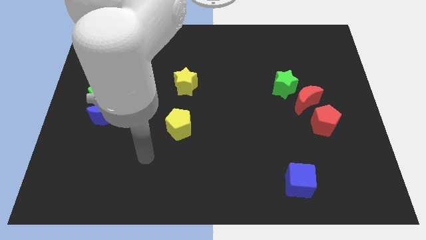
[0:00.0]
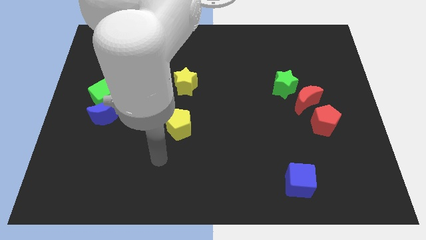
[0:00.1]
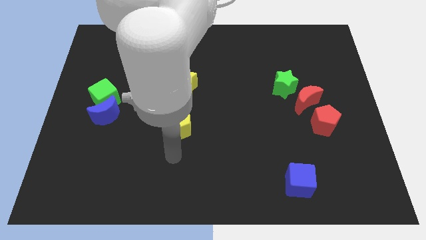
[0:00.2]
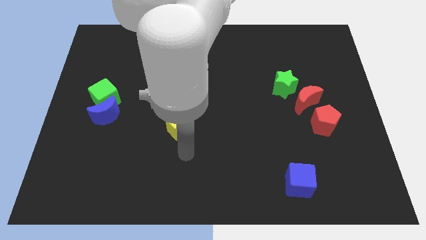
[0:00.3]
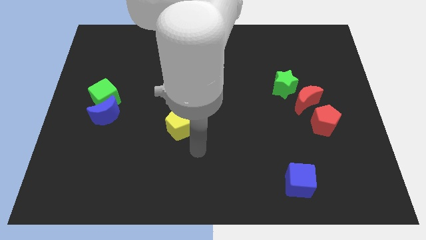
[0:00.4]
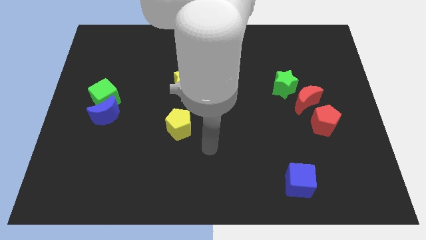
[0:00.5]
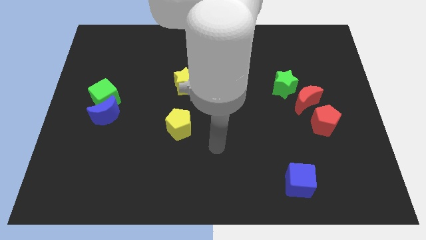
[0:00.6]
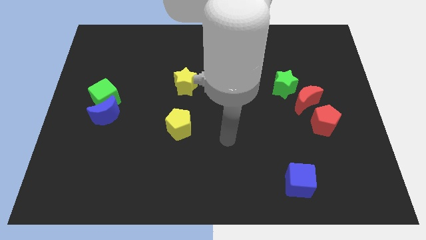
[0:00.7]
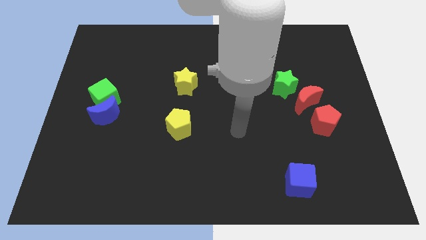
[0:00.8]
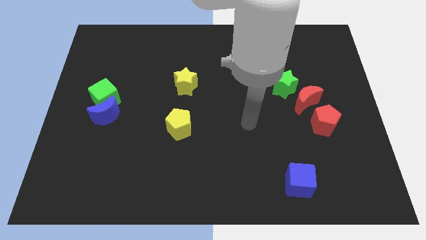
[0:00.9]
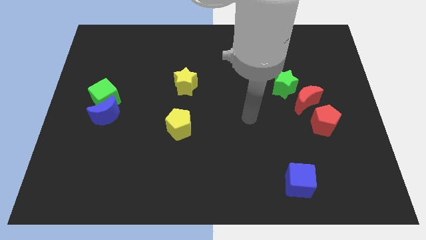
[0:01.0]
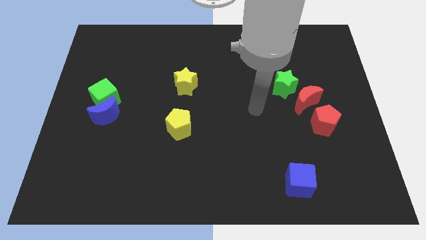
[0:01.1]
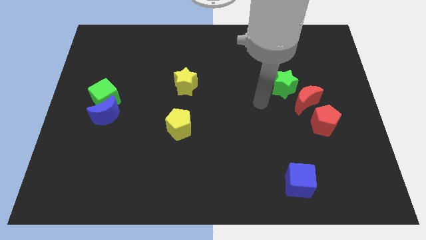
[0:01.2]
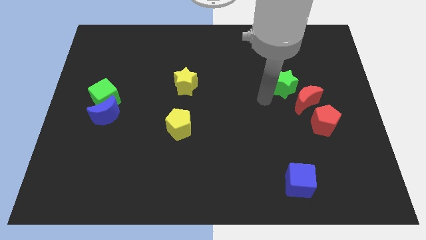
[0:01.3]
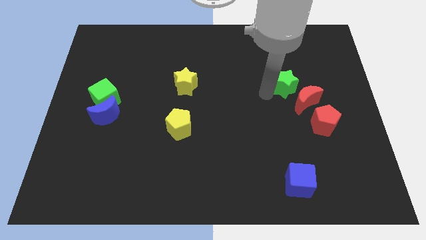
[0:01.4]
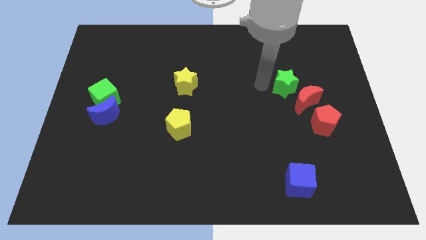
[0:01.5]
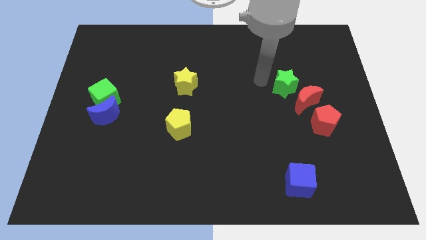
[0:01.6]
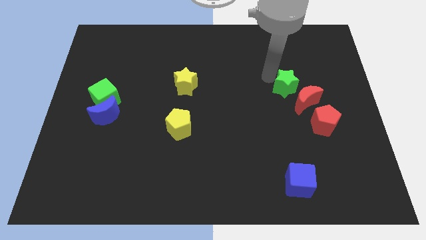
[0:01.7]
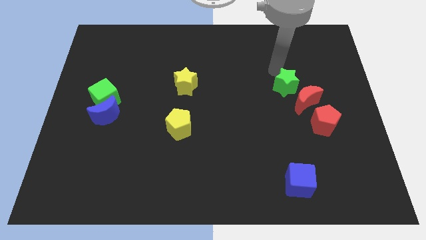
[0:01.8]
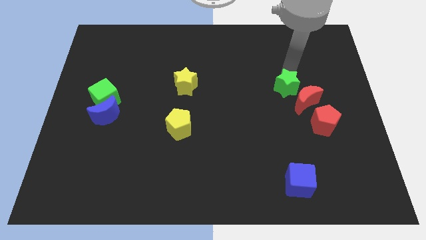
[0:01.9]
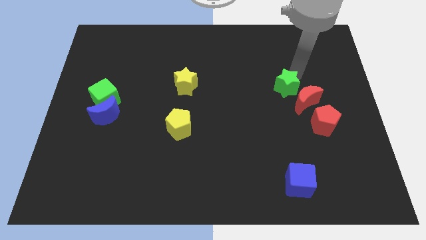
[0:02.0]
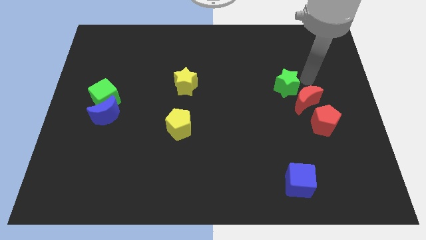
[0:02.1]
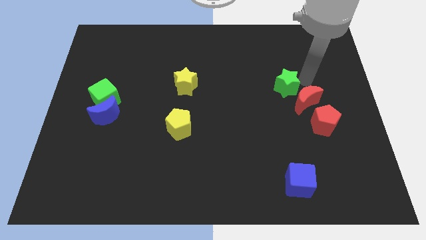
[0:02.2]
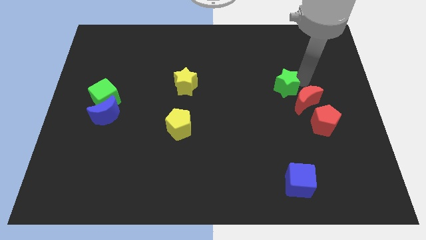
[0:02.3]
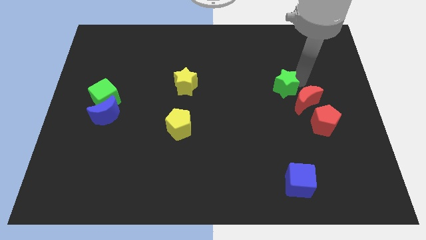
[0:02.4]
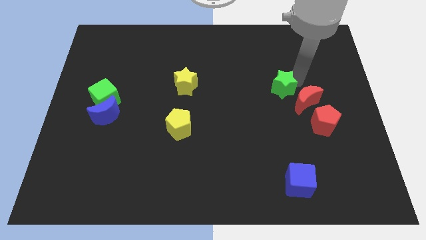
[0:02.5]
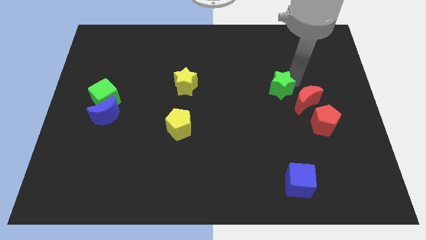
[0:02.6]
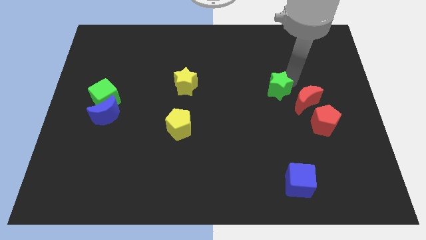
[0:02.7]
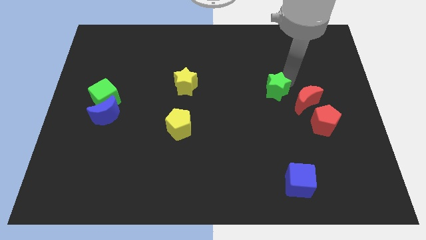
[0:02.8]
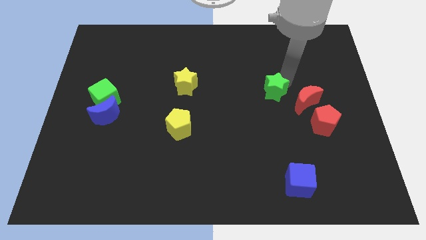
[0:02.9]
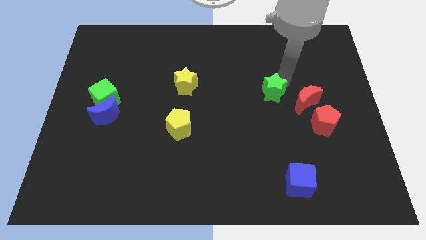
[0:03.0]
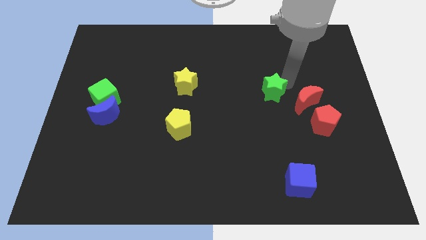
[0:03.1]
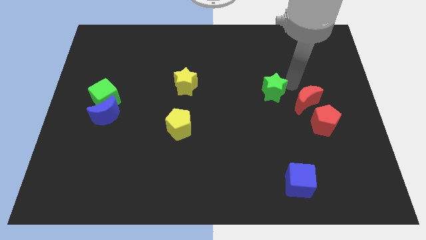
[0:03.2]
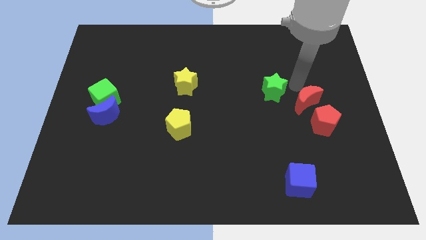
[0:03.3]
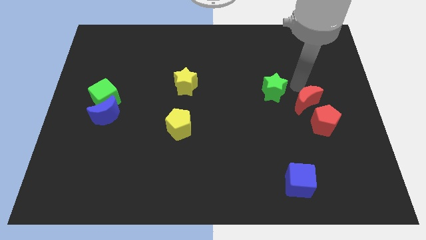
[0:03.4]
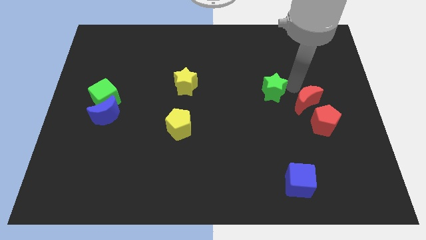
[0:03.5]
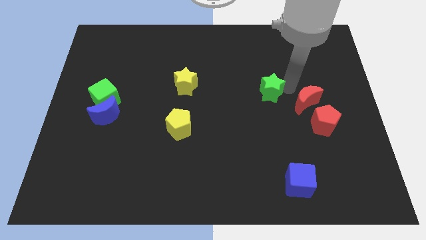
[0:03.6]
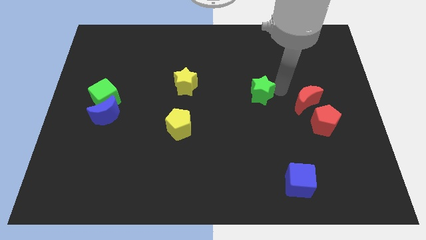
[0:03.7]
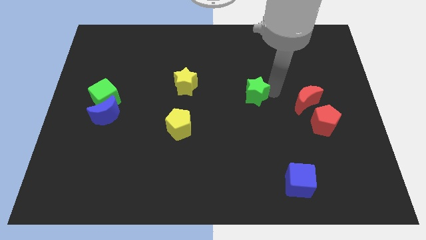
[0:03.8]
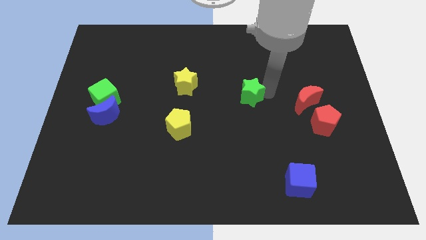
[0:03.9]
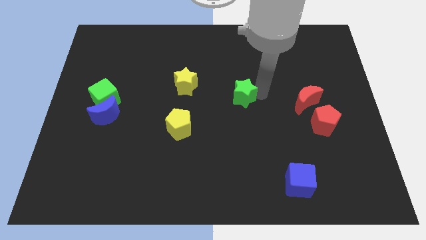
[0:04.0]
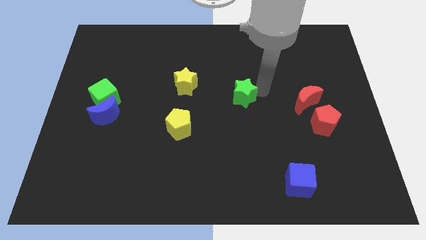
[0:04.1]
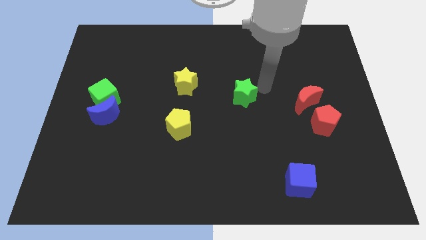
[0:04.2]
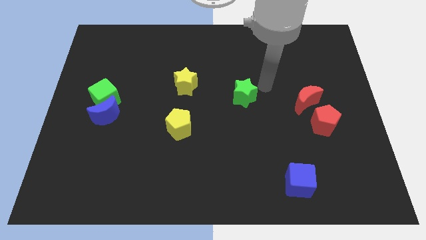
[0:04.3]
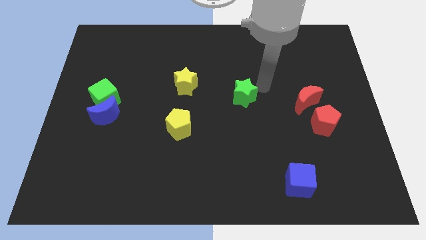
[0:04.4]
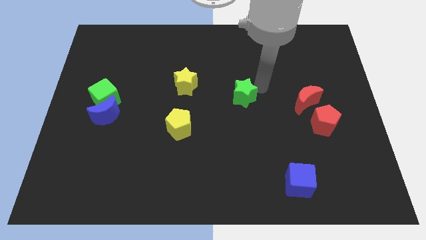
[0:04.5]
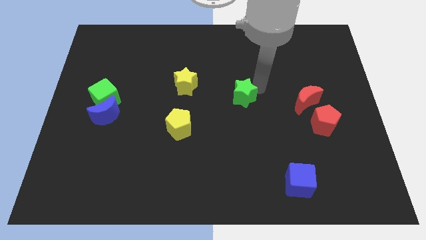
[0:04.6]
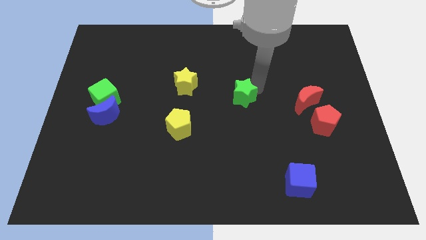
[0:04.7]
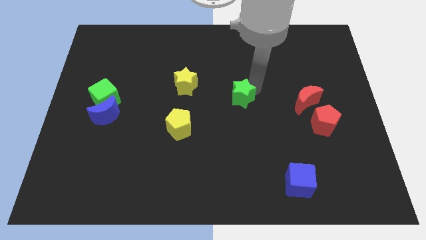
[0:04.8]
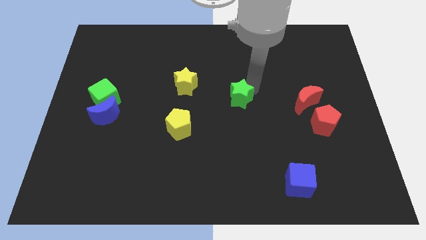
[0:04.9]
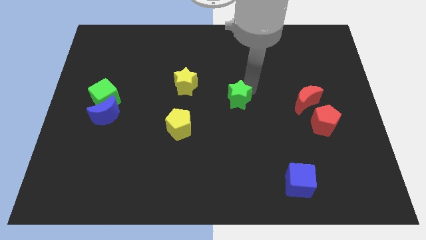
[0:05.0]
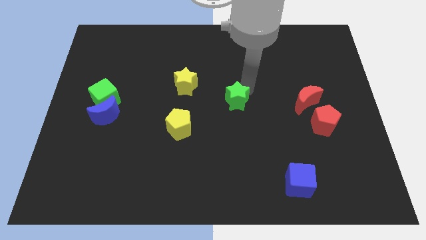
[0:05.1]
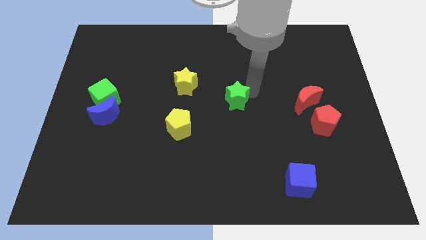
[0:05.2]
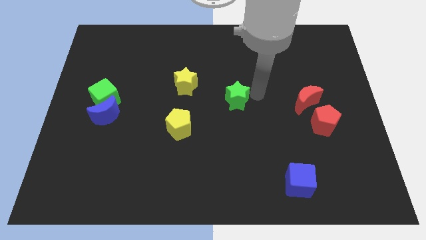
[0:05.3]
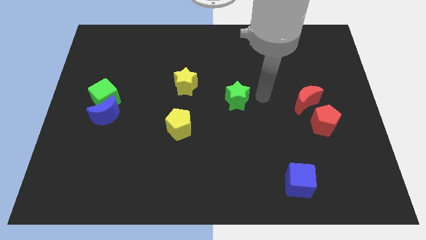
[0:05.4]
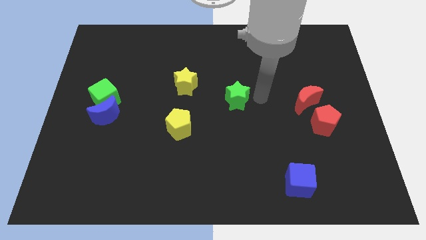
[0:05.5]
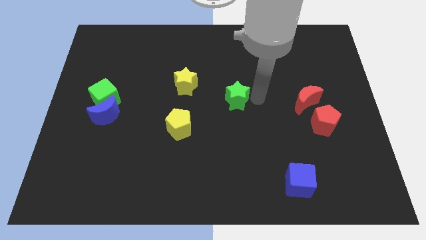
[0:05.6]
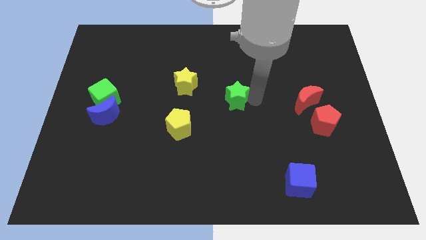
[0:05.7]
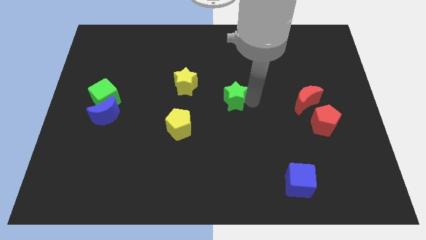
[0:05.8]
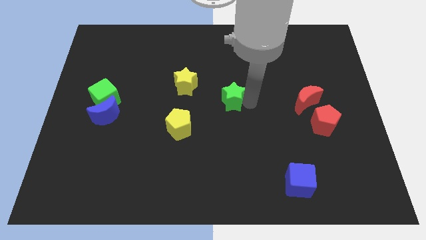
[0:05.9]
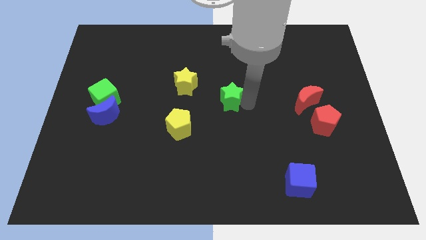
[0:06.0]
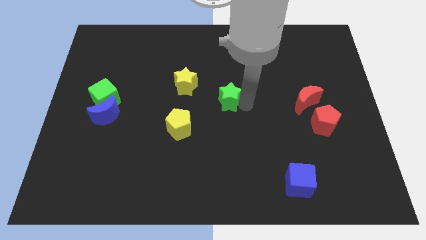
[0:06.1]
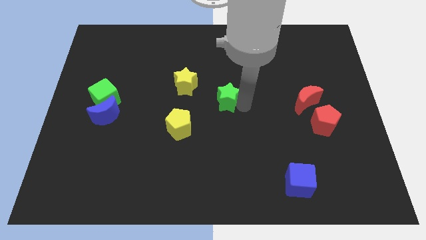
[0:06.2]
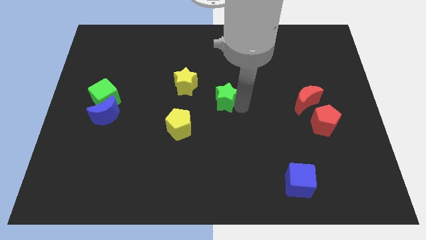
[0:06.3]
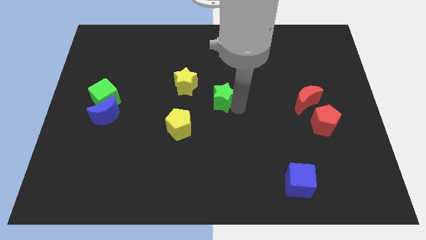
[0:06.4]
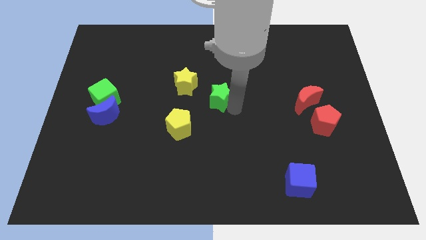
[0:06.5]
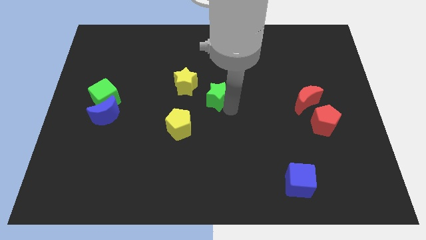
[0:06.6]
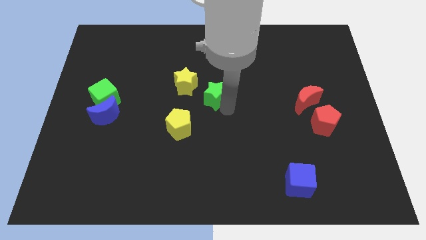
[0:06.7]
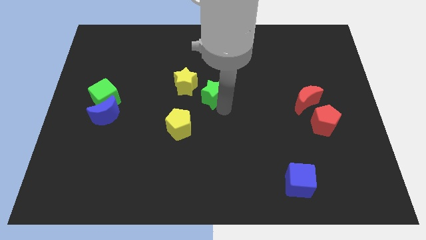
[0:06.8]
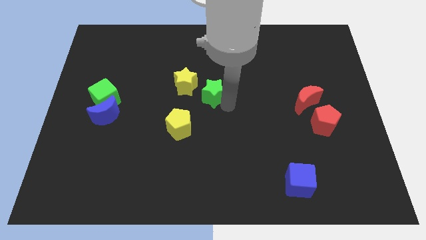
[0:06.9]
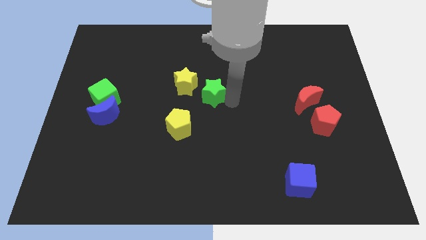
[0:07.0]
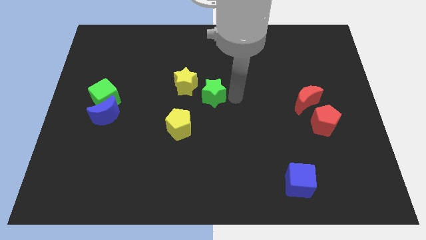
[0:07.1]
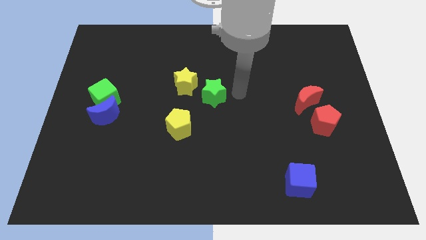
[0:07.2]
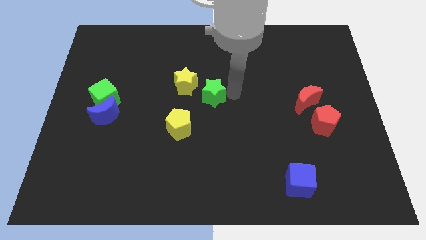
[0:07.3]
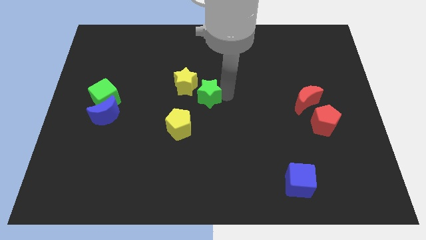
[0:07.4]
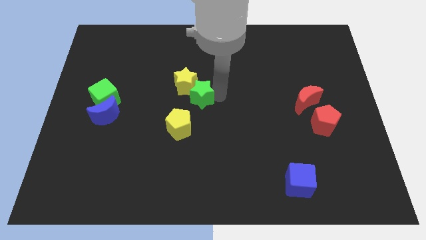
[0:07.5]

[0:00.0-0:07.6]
move the green star to the left

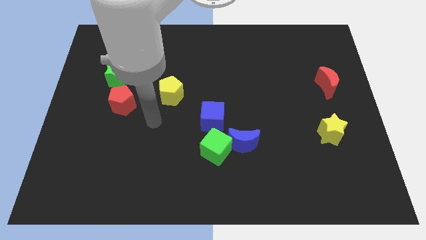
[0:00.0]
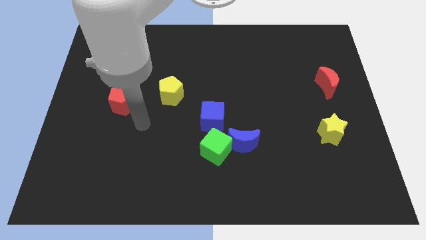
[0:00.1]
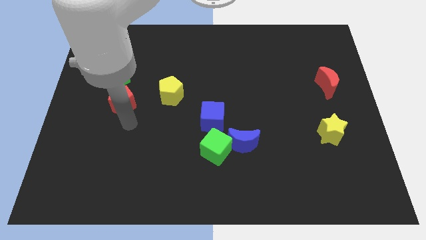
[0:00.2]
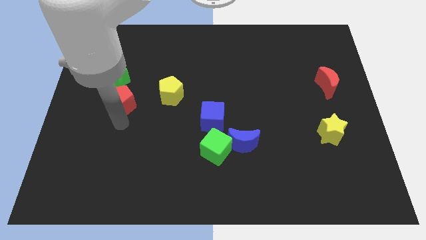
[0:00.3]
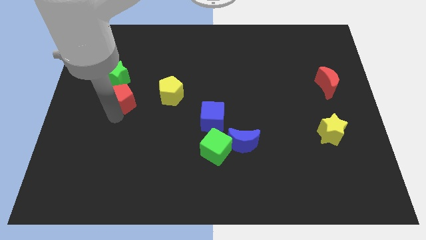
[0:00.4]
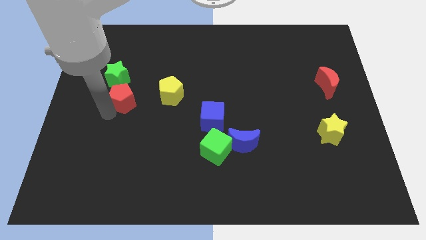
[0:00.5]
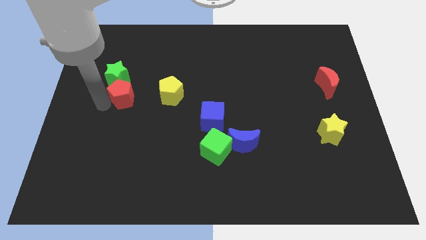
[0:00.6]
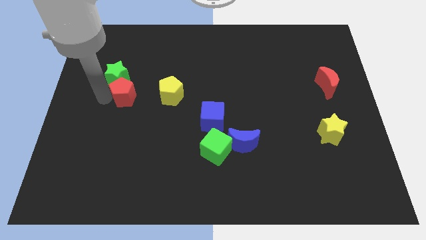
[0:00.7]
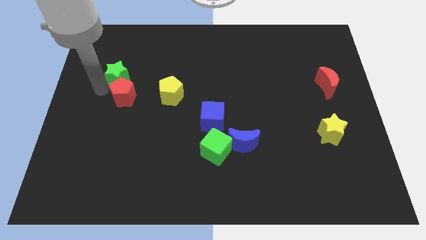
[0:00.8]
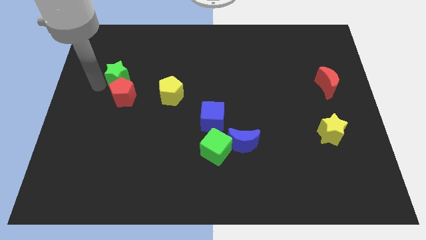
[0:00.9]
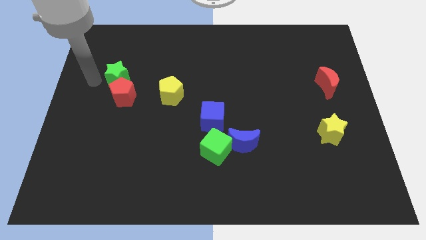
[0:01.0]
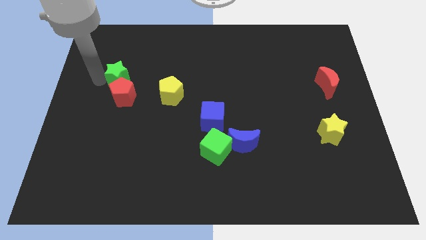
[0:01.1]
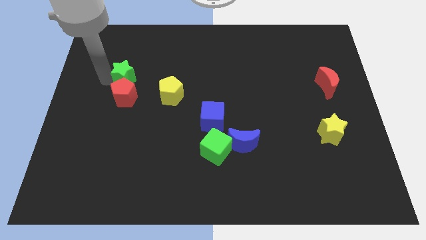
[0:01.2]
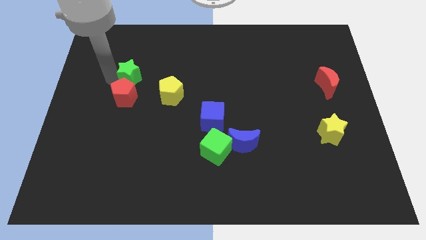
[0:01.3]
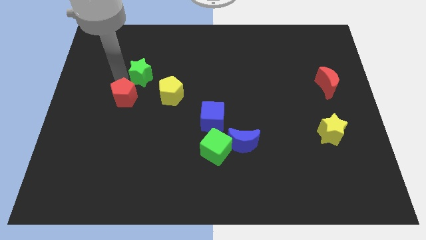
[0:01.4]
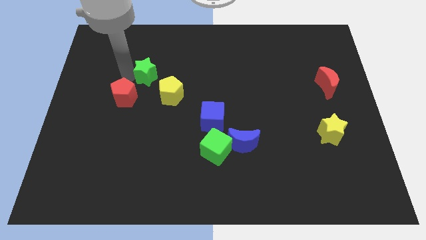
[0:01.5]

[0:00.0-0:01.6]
slightly move the green star right
